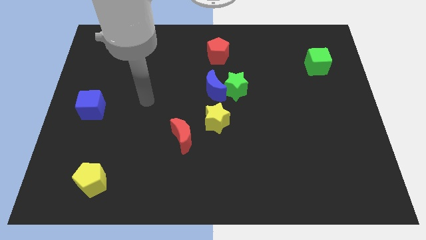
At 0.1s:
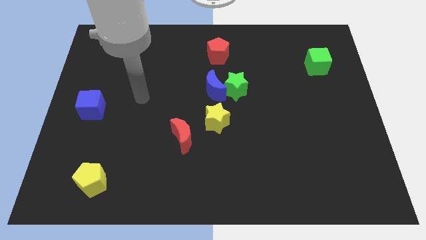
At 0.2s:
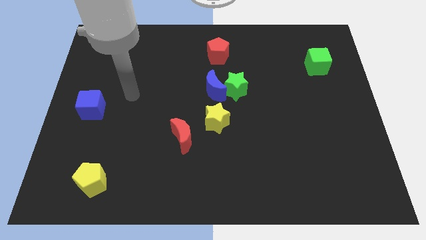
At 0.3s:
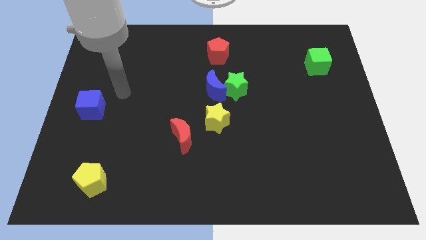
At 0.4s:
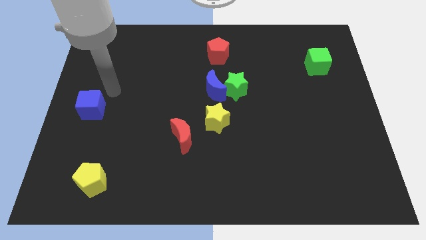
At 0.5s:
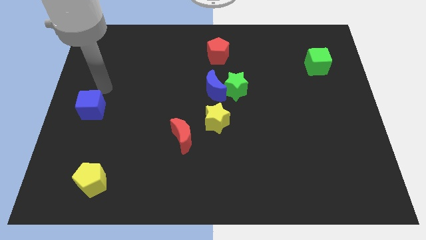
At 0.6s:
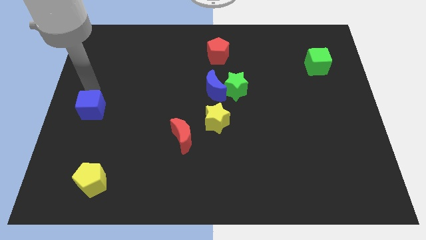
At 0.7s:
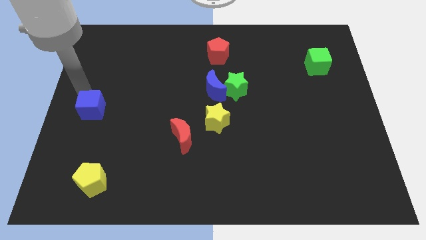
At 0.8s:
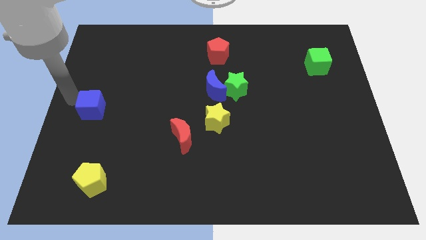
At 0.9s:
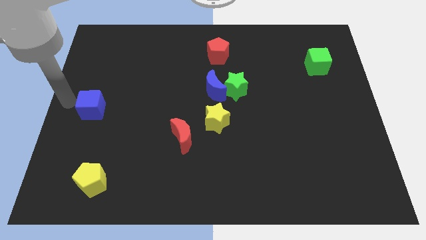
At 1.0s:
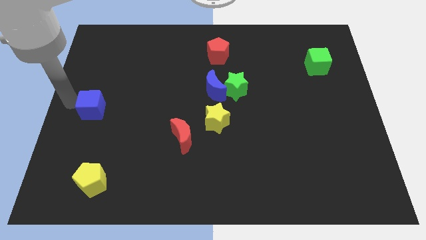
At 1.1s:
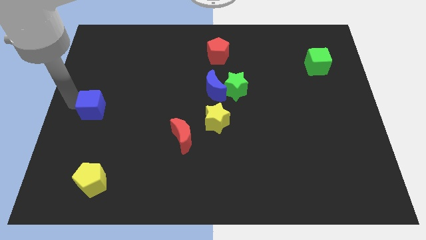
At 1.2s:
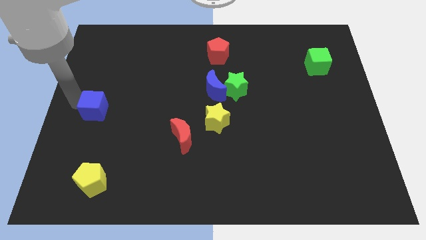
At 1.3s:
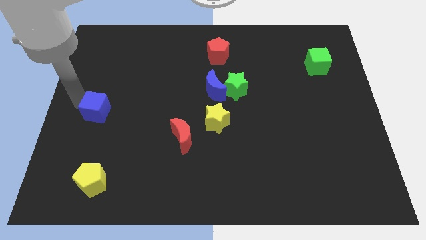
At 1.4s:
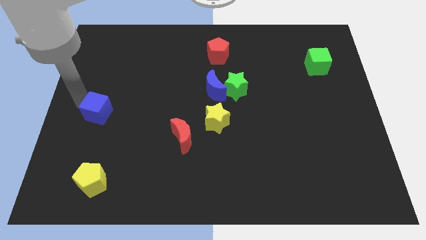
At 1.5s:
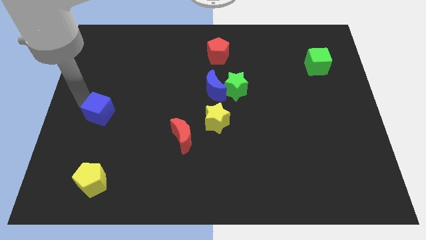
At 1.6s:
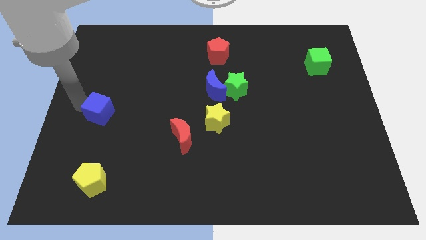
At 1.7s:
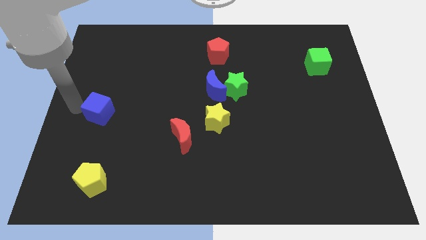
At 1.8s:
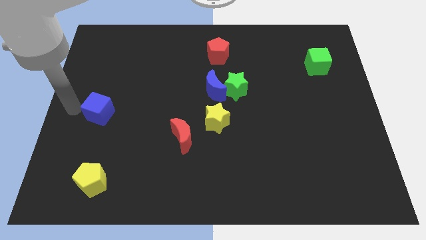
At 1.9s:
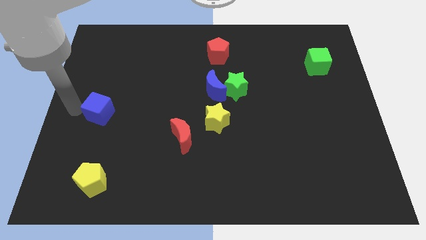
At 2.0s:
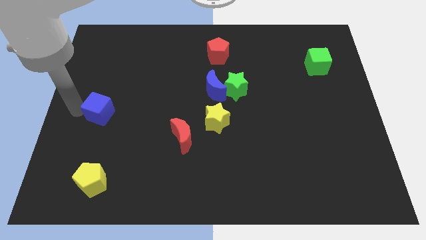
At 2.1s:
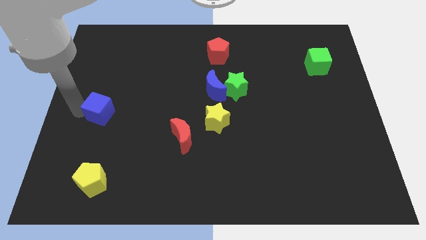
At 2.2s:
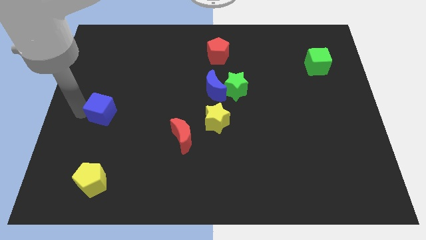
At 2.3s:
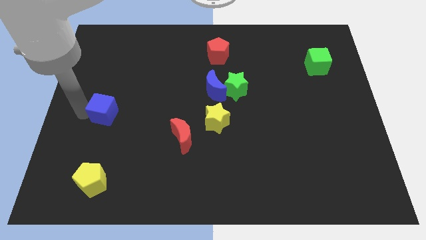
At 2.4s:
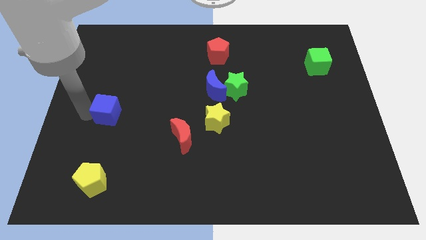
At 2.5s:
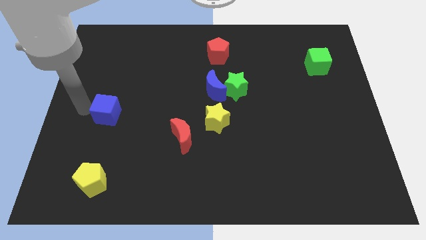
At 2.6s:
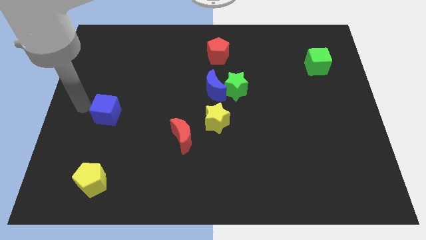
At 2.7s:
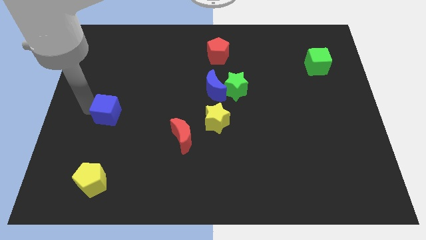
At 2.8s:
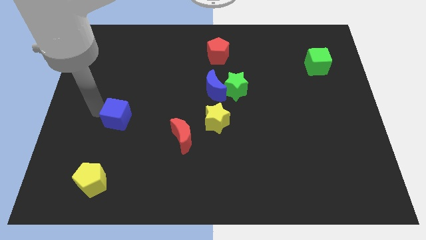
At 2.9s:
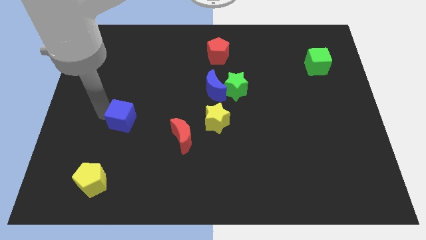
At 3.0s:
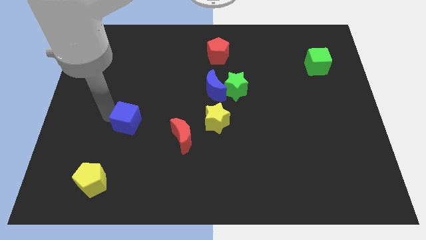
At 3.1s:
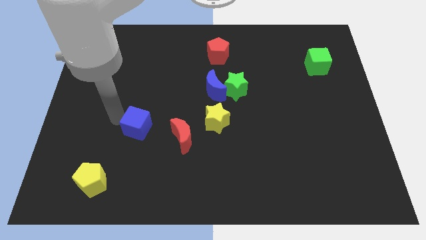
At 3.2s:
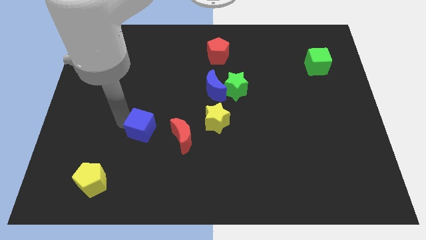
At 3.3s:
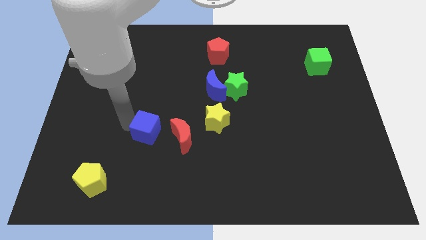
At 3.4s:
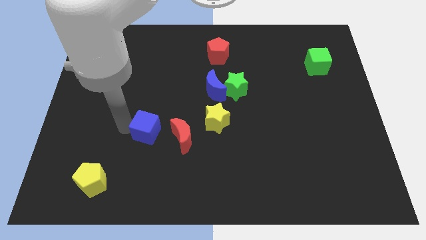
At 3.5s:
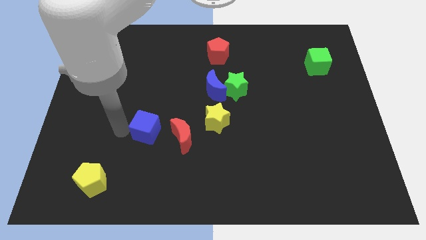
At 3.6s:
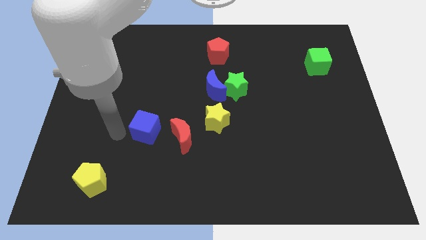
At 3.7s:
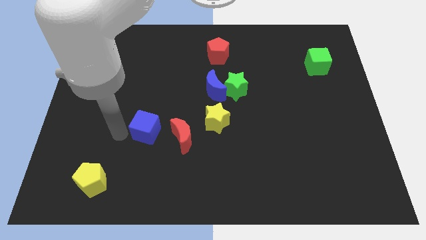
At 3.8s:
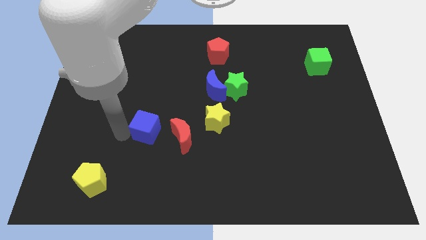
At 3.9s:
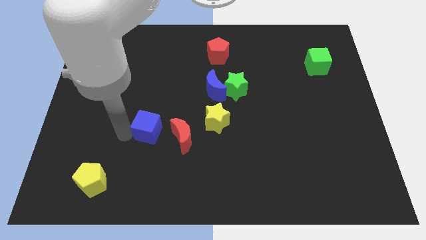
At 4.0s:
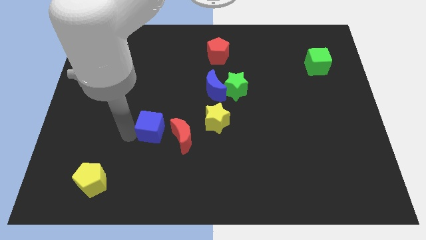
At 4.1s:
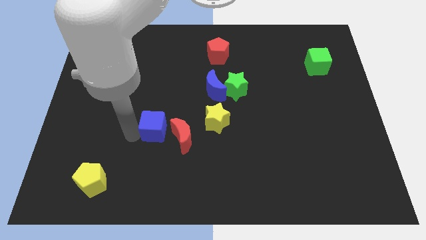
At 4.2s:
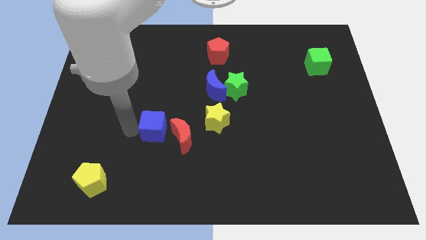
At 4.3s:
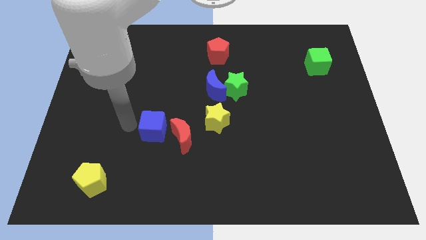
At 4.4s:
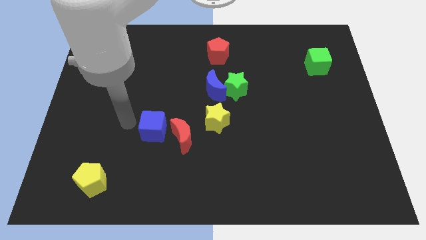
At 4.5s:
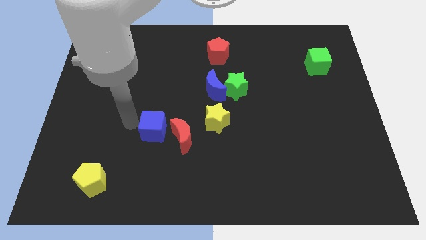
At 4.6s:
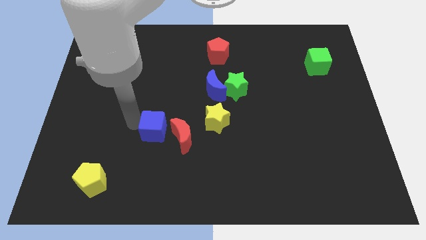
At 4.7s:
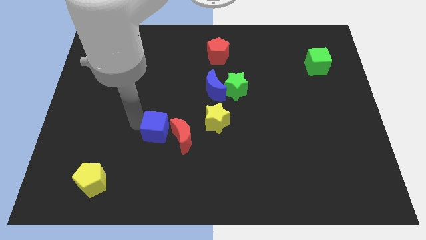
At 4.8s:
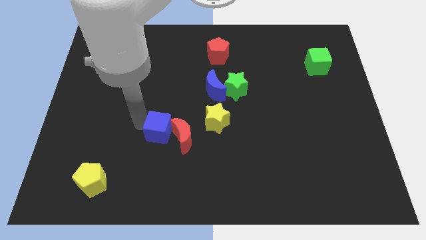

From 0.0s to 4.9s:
slide the blue cube towards the red moon

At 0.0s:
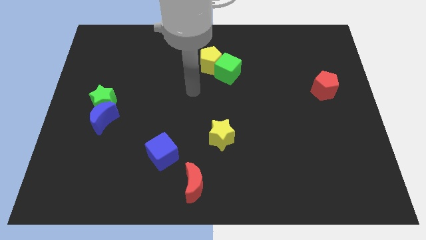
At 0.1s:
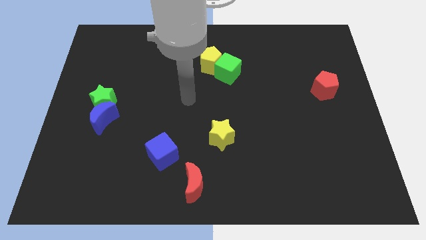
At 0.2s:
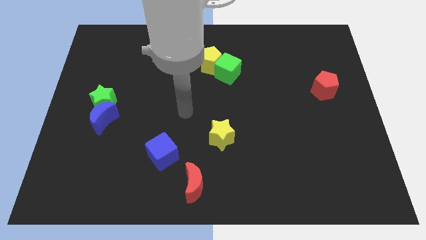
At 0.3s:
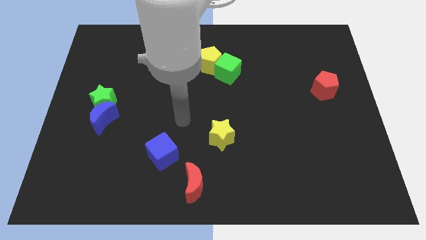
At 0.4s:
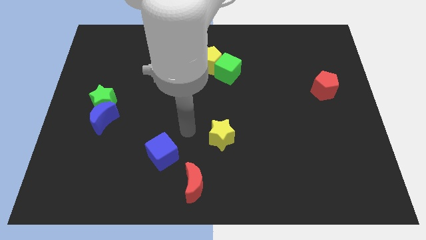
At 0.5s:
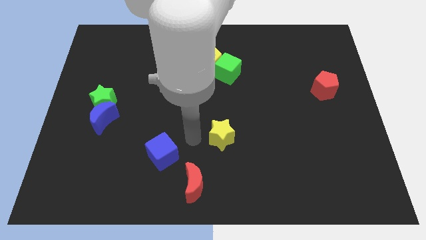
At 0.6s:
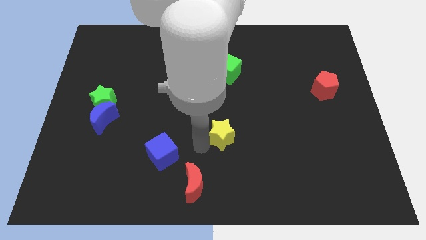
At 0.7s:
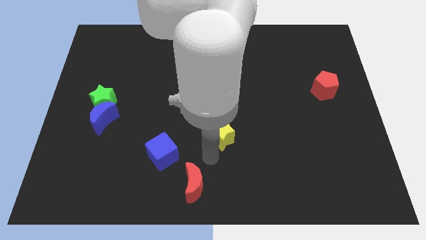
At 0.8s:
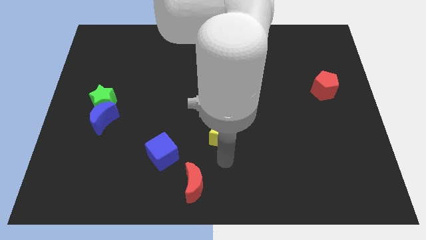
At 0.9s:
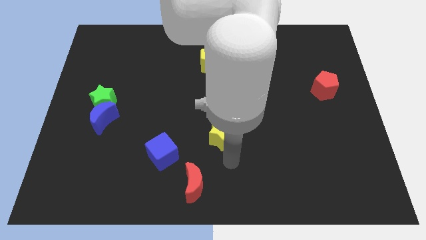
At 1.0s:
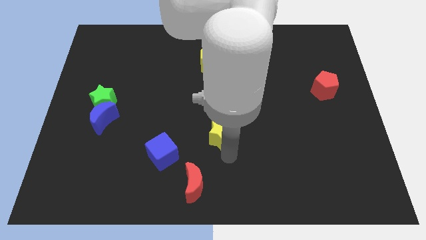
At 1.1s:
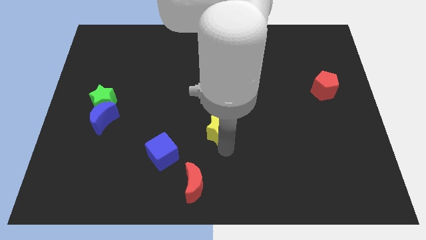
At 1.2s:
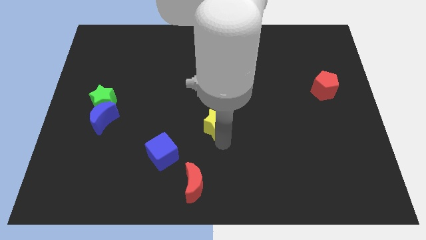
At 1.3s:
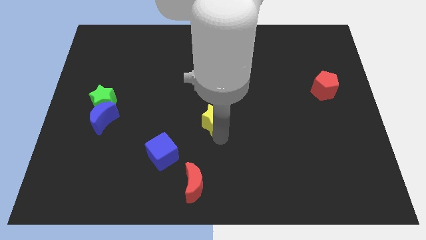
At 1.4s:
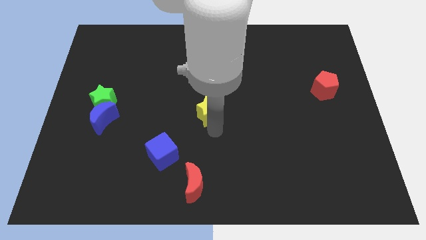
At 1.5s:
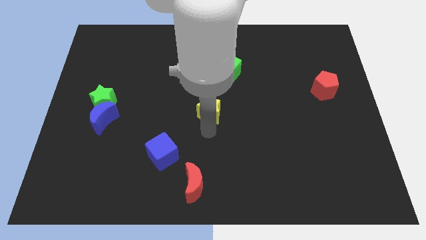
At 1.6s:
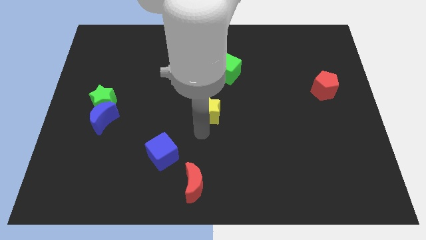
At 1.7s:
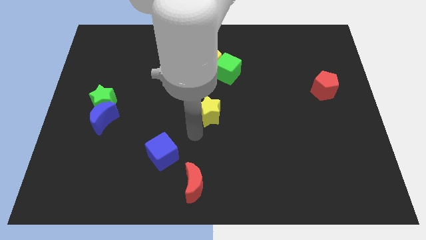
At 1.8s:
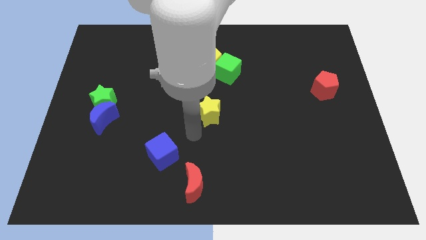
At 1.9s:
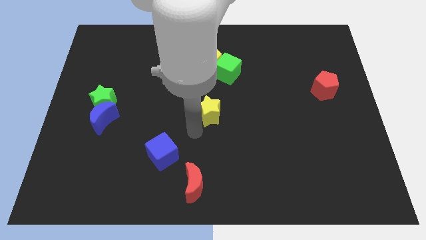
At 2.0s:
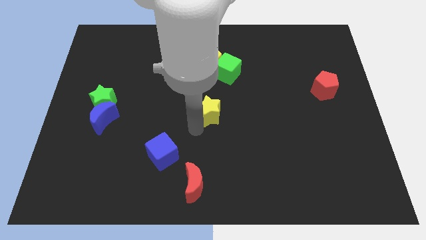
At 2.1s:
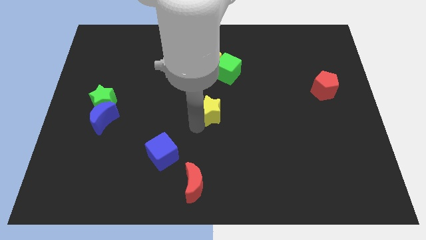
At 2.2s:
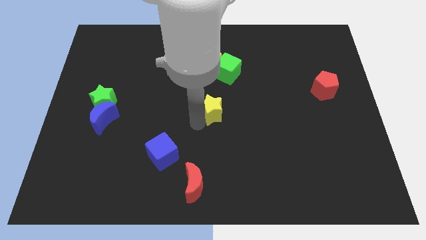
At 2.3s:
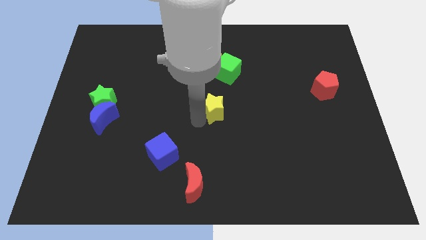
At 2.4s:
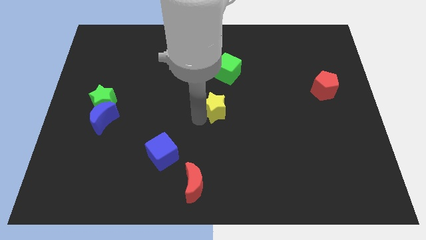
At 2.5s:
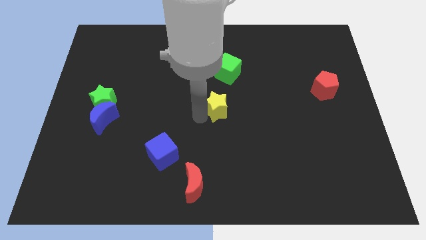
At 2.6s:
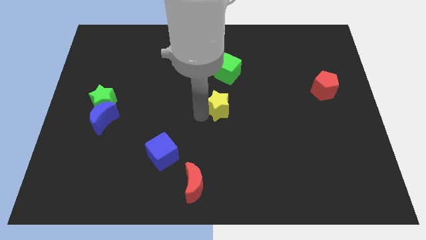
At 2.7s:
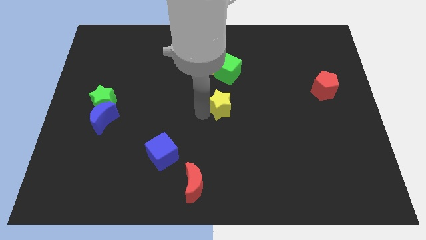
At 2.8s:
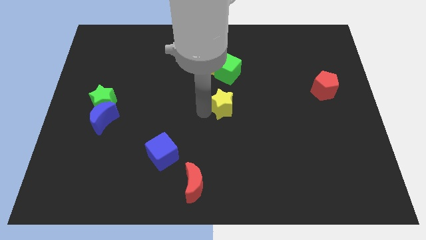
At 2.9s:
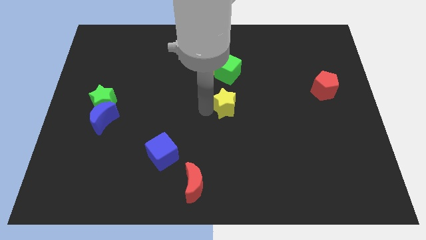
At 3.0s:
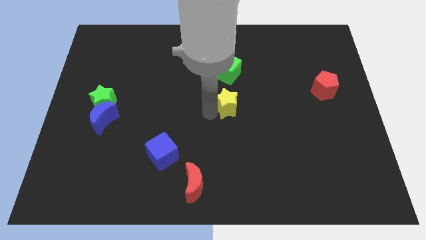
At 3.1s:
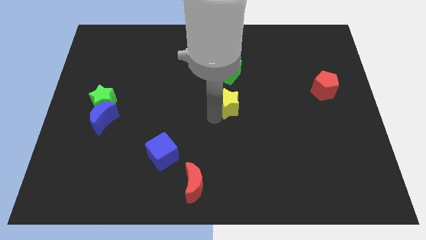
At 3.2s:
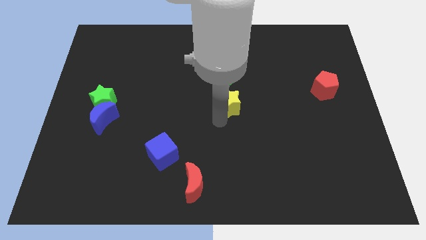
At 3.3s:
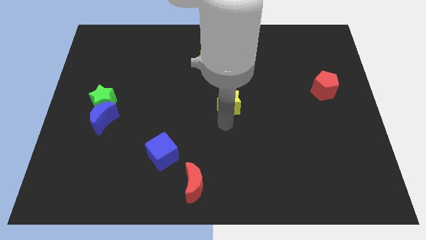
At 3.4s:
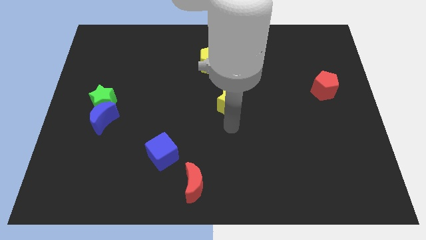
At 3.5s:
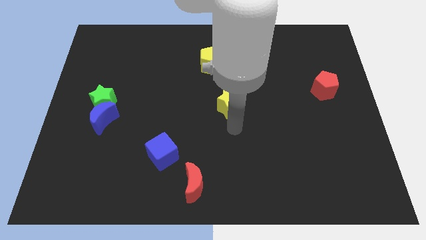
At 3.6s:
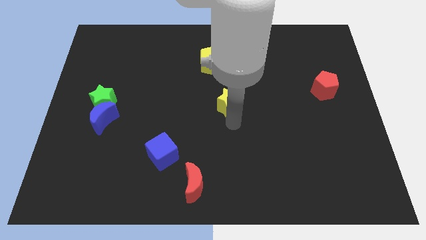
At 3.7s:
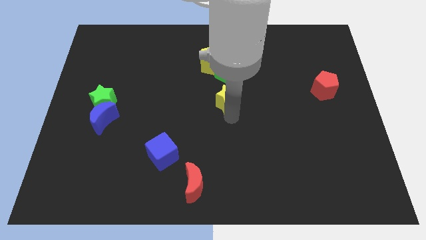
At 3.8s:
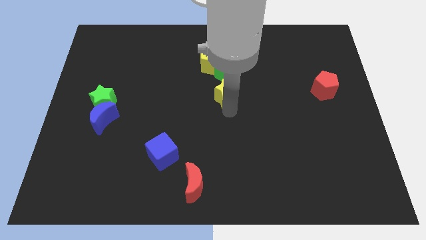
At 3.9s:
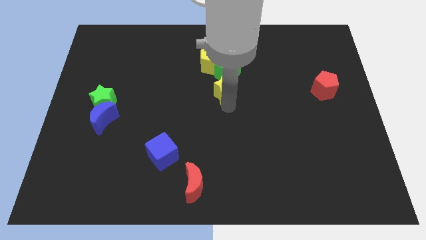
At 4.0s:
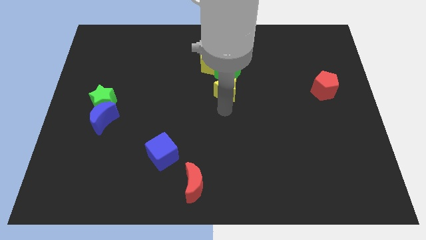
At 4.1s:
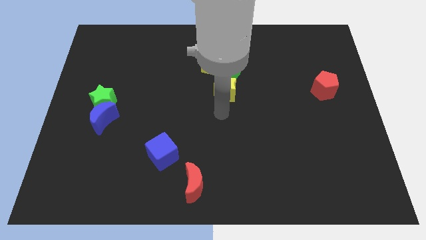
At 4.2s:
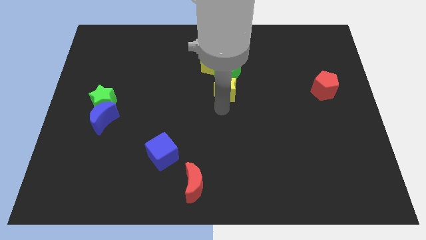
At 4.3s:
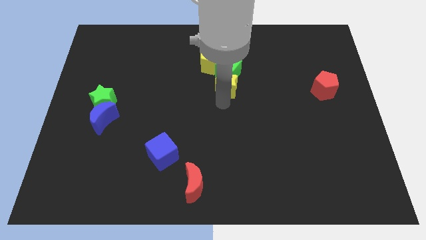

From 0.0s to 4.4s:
move the yellow star next to the green cube
